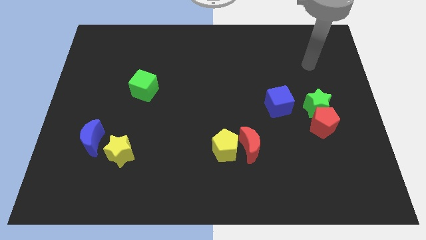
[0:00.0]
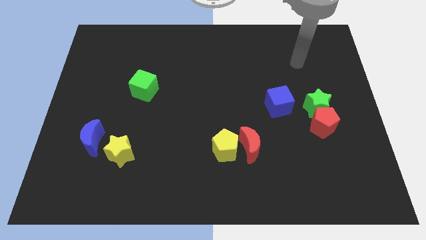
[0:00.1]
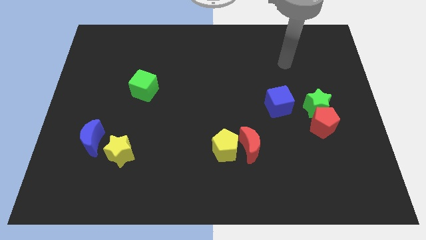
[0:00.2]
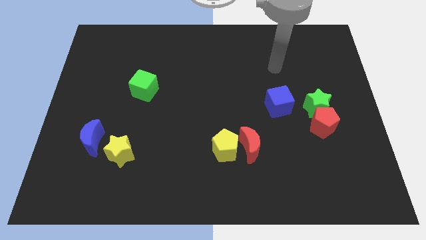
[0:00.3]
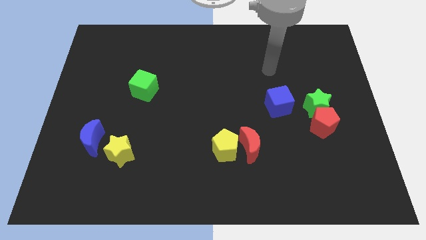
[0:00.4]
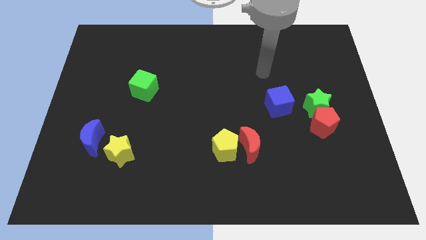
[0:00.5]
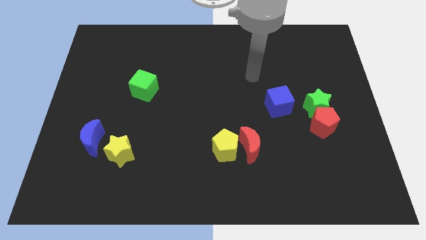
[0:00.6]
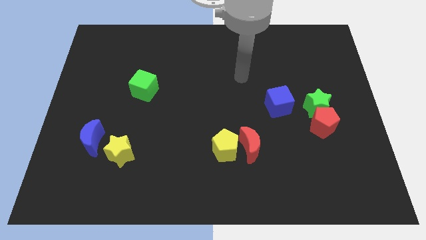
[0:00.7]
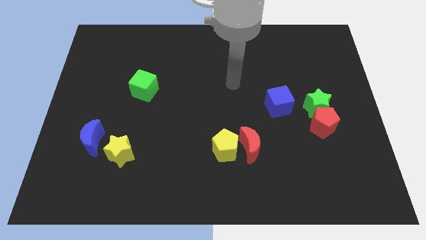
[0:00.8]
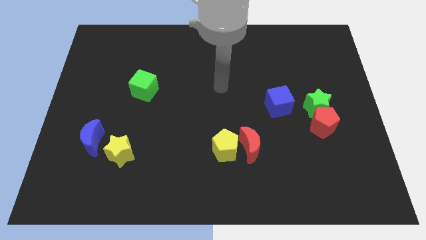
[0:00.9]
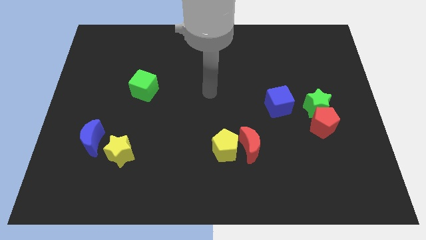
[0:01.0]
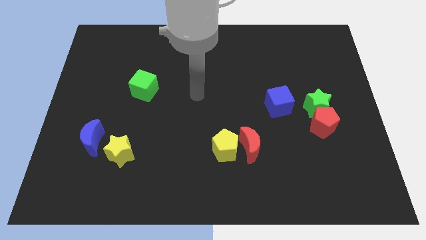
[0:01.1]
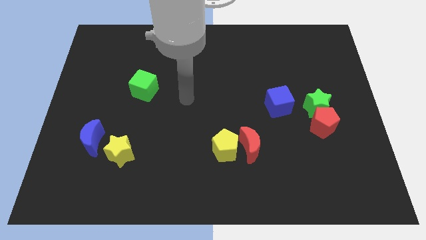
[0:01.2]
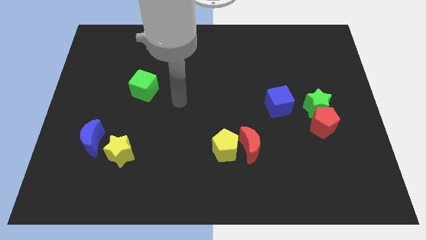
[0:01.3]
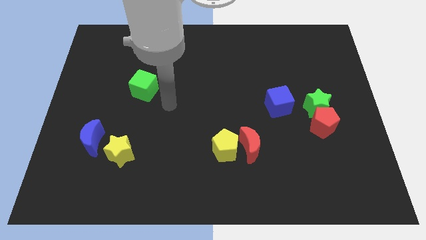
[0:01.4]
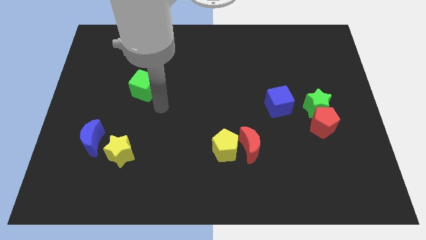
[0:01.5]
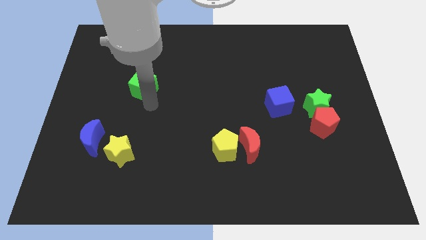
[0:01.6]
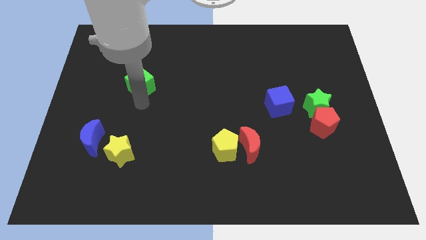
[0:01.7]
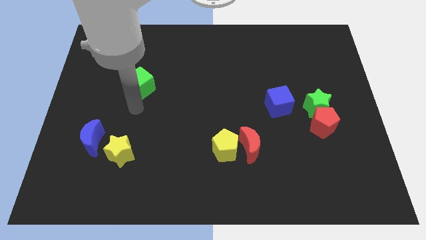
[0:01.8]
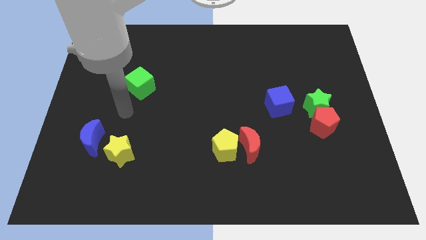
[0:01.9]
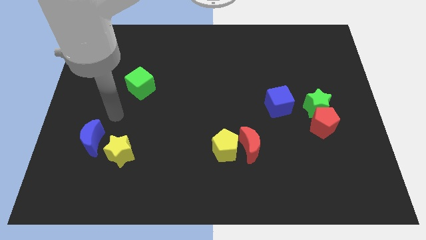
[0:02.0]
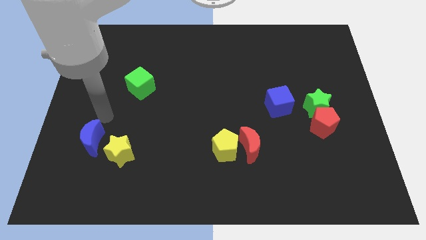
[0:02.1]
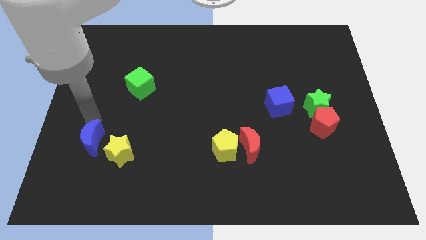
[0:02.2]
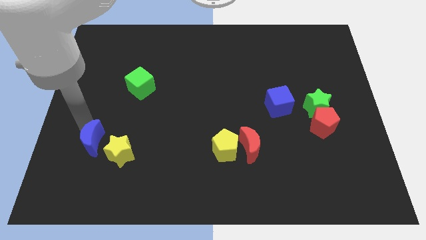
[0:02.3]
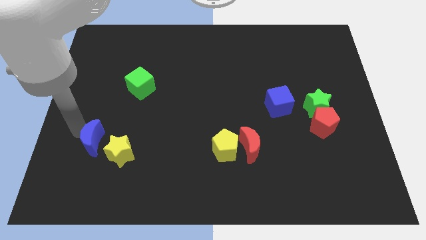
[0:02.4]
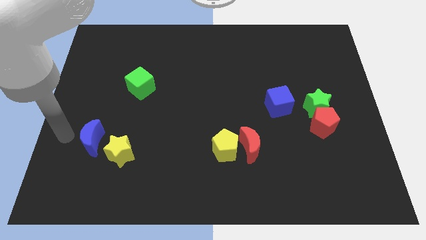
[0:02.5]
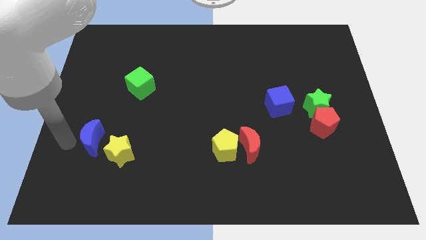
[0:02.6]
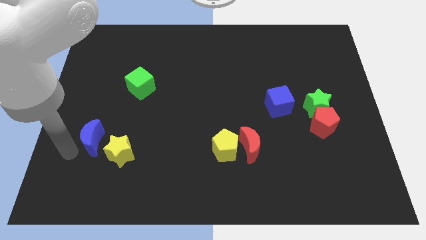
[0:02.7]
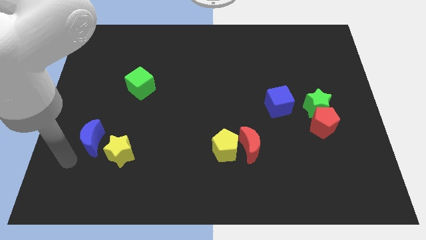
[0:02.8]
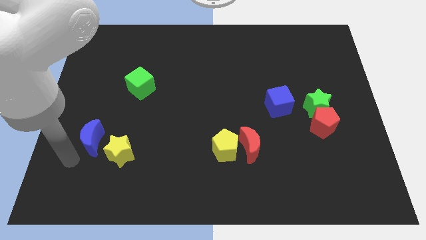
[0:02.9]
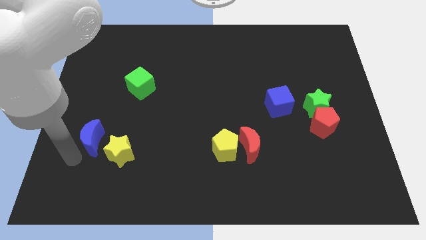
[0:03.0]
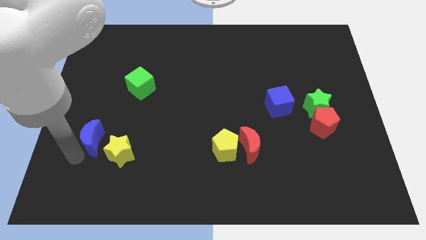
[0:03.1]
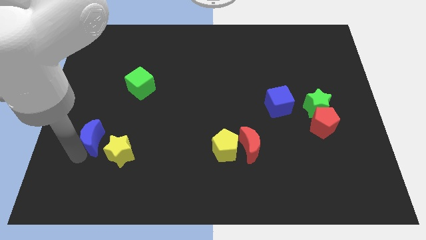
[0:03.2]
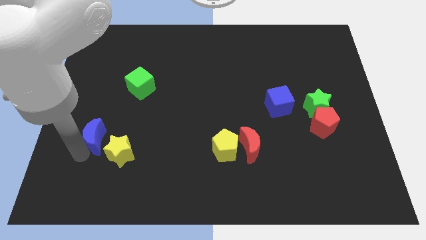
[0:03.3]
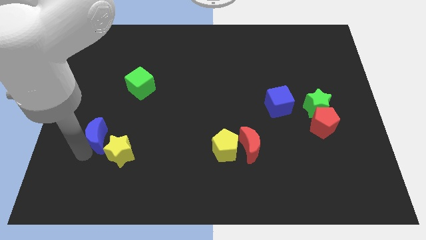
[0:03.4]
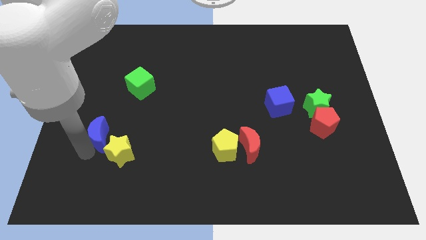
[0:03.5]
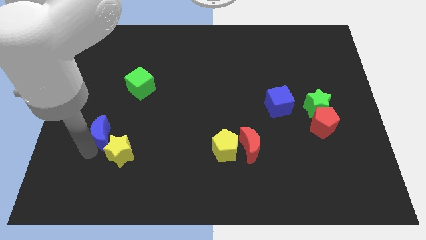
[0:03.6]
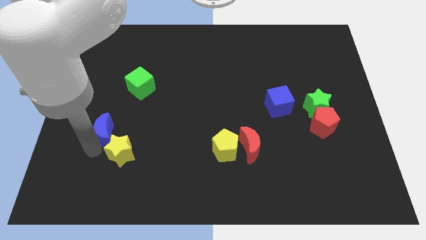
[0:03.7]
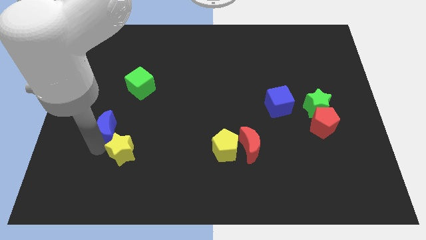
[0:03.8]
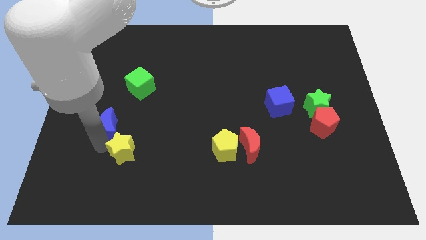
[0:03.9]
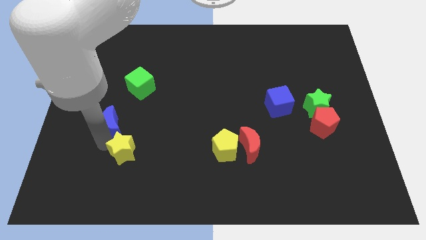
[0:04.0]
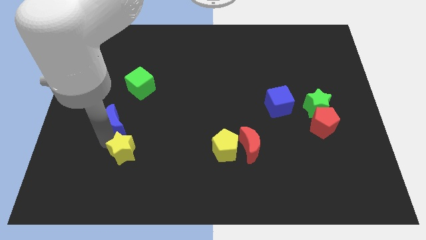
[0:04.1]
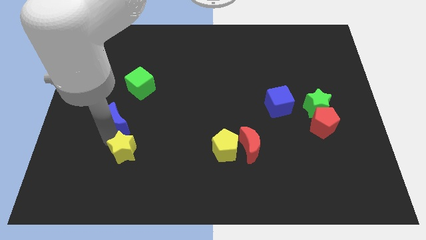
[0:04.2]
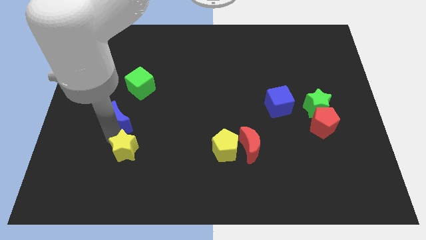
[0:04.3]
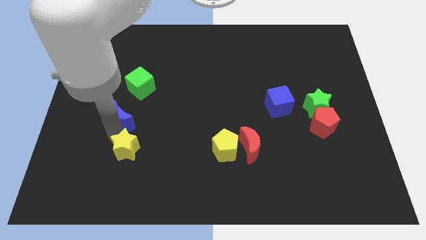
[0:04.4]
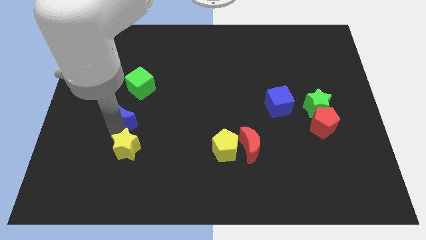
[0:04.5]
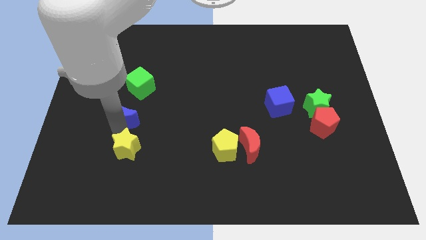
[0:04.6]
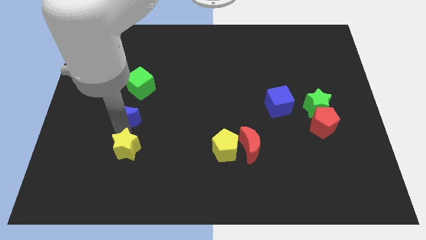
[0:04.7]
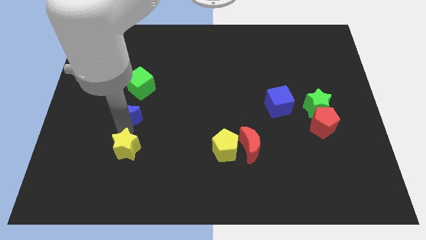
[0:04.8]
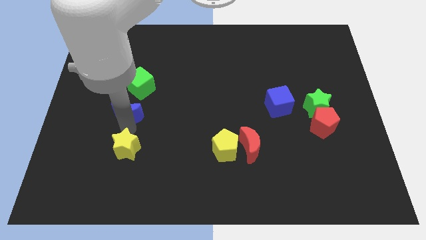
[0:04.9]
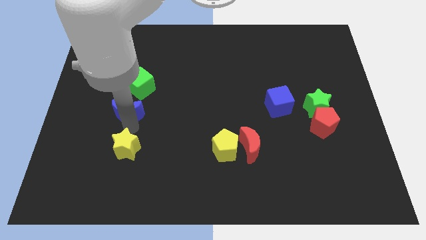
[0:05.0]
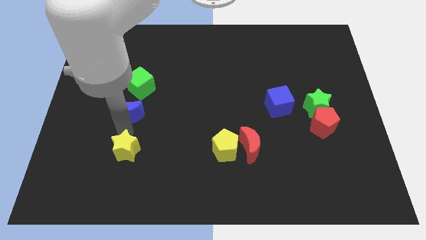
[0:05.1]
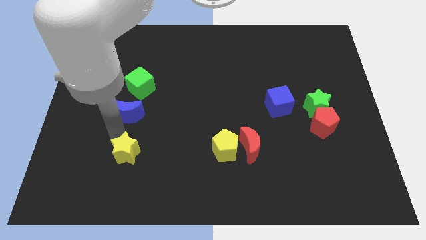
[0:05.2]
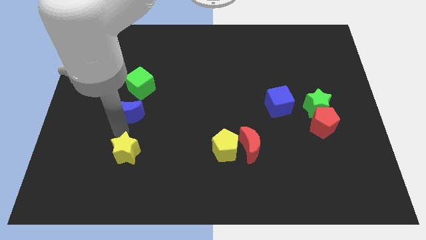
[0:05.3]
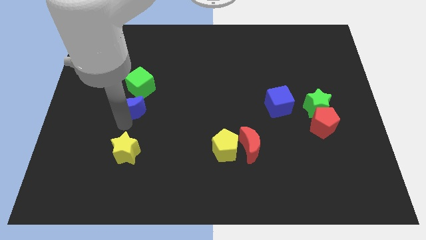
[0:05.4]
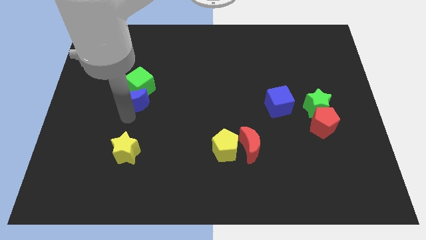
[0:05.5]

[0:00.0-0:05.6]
slide the blue moon close to the green cube
